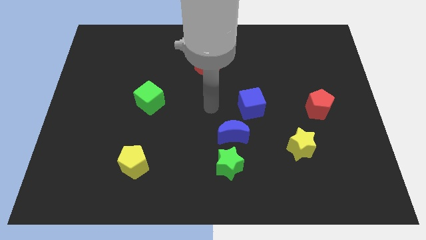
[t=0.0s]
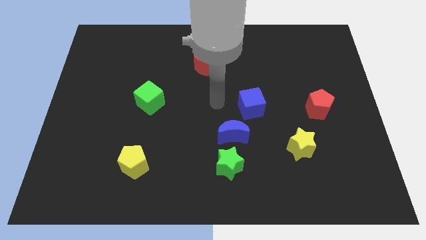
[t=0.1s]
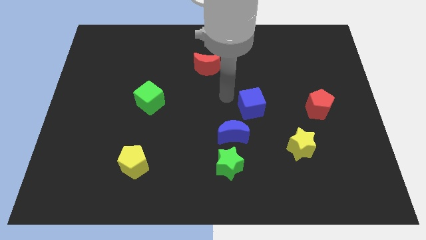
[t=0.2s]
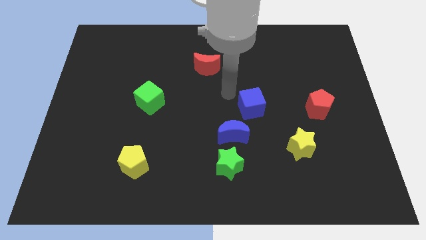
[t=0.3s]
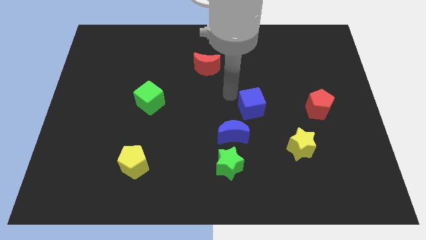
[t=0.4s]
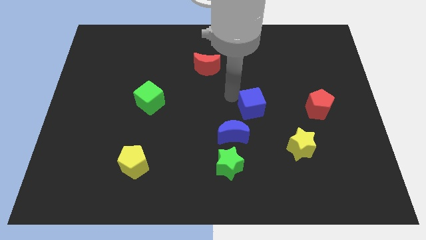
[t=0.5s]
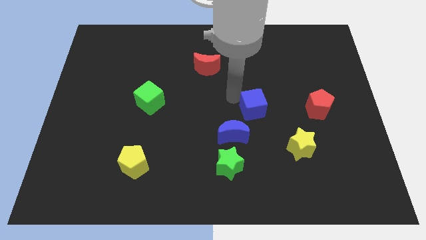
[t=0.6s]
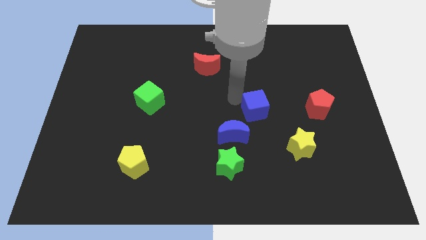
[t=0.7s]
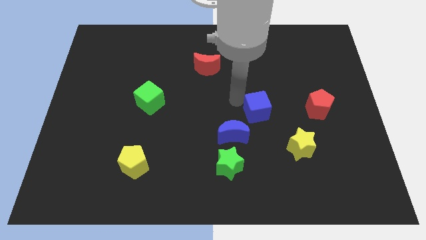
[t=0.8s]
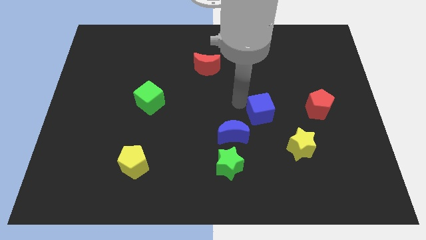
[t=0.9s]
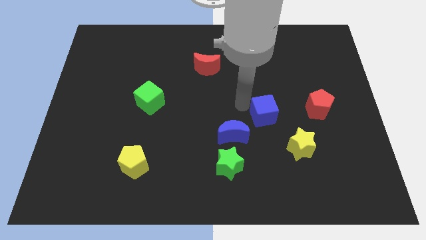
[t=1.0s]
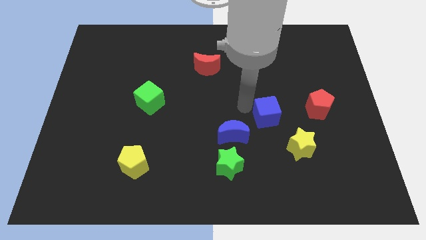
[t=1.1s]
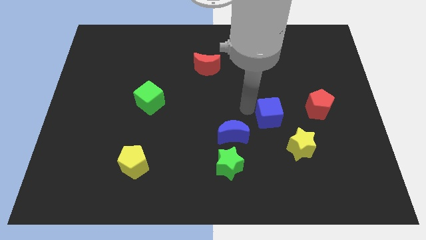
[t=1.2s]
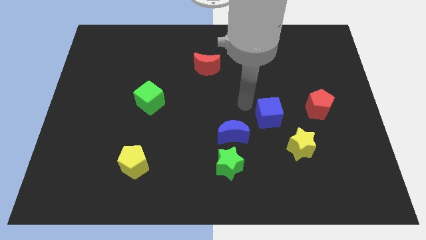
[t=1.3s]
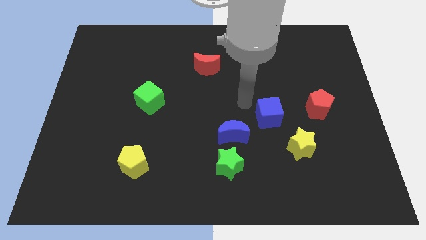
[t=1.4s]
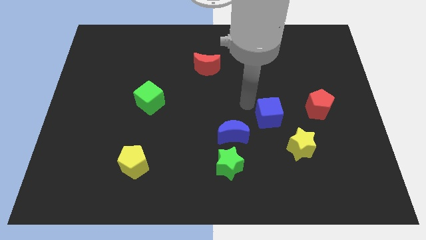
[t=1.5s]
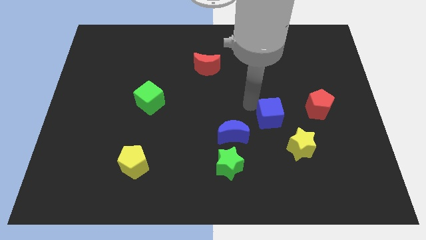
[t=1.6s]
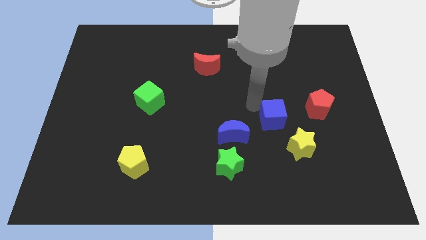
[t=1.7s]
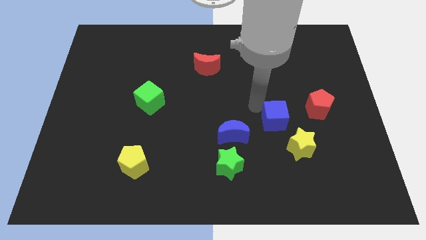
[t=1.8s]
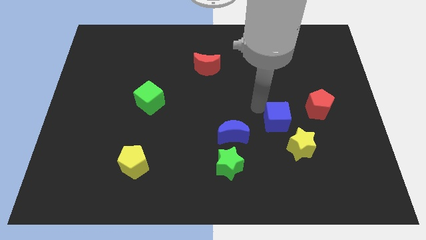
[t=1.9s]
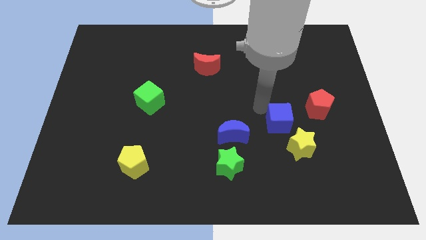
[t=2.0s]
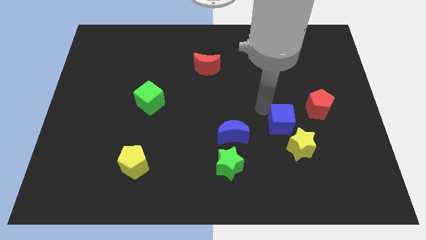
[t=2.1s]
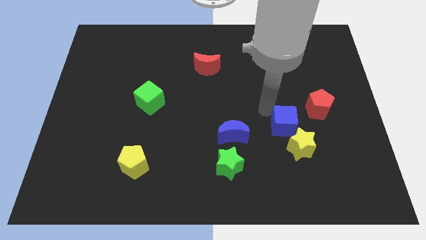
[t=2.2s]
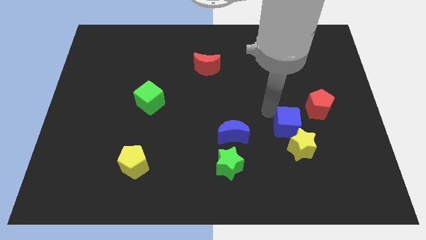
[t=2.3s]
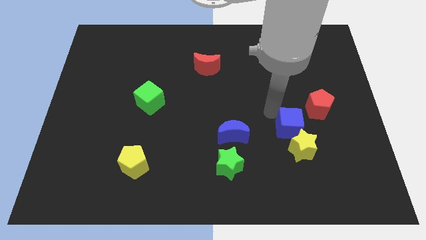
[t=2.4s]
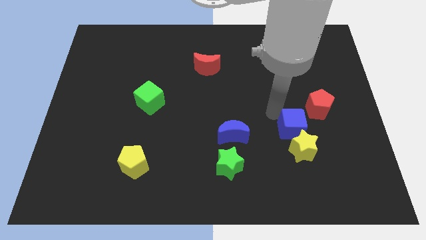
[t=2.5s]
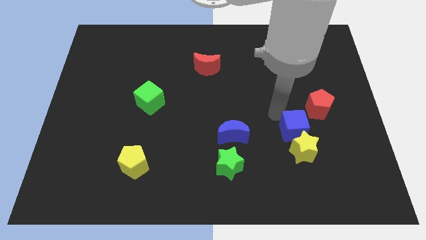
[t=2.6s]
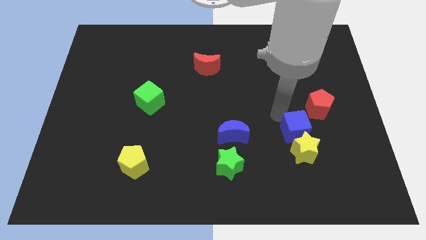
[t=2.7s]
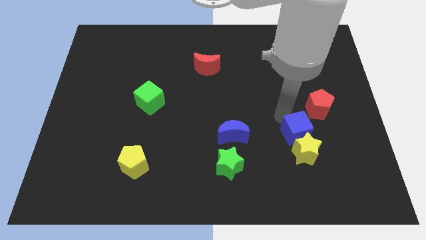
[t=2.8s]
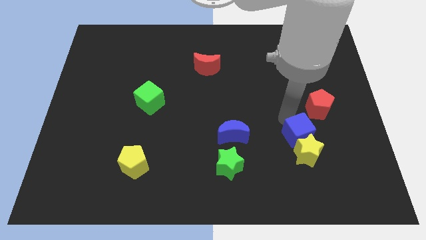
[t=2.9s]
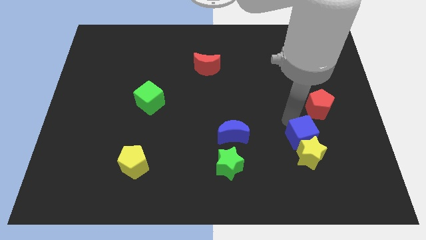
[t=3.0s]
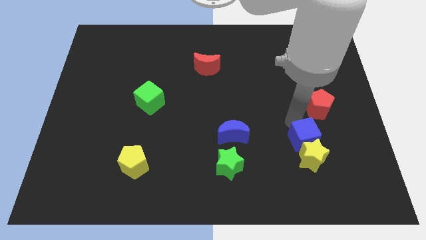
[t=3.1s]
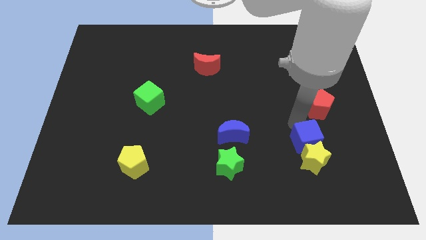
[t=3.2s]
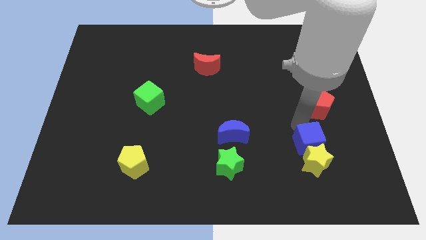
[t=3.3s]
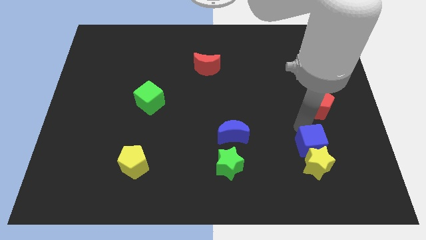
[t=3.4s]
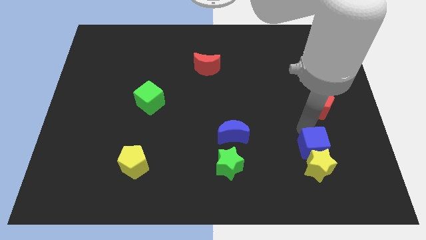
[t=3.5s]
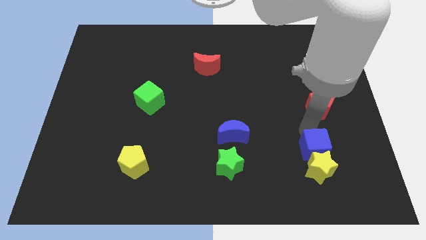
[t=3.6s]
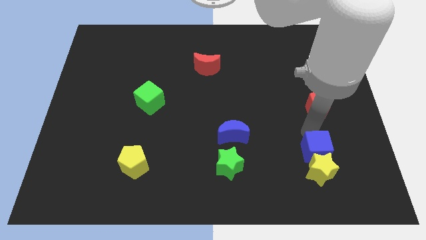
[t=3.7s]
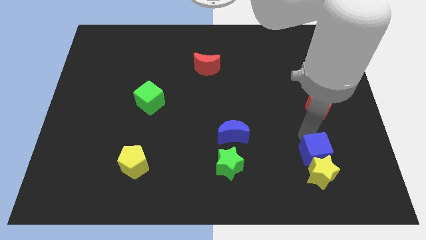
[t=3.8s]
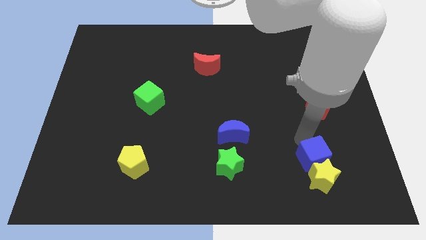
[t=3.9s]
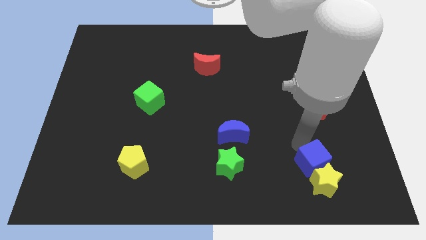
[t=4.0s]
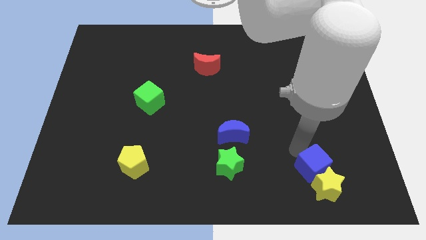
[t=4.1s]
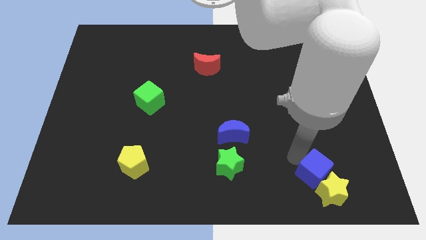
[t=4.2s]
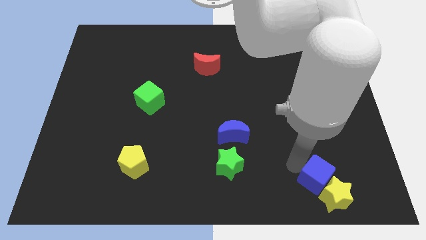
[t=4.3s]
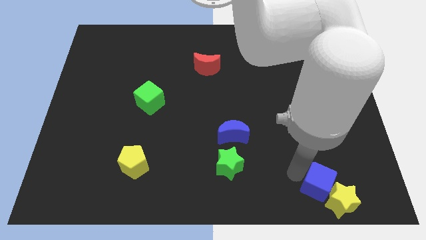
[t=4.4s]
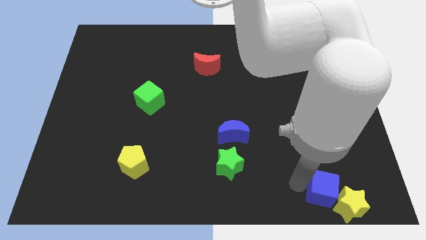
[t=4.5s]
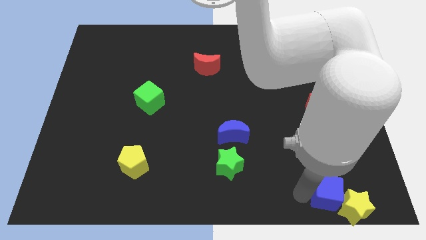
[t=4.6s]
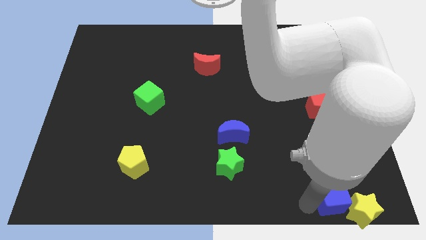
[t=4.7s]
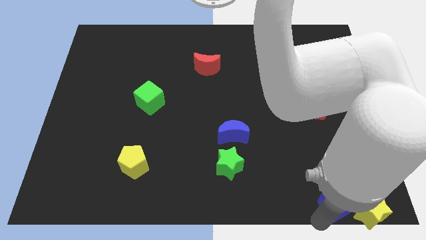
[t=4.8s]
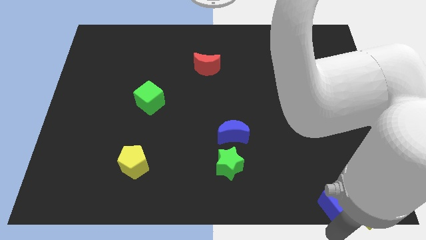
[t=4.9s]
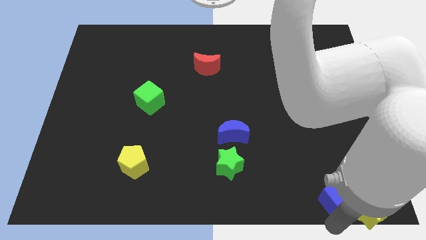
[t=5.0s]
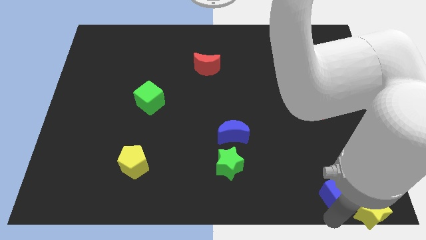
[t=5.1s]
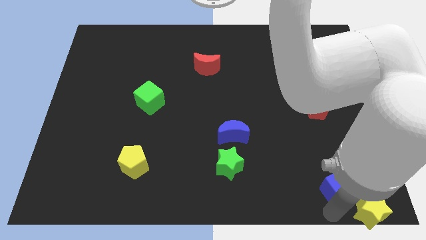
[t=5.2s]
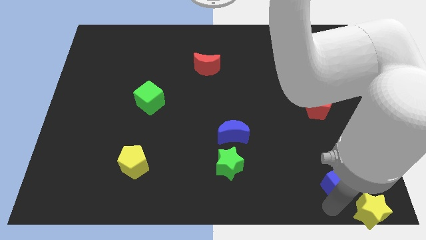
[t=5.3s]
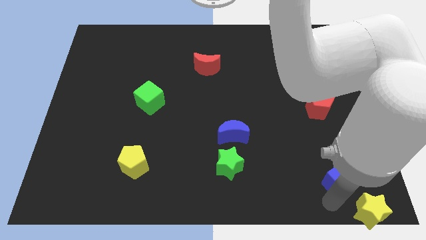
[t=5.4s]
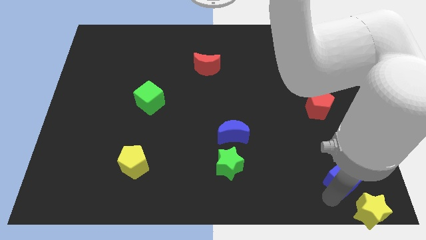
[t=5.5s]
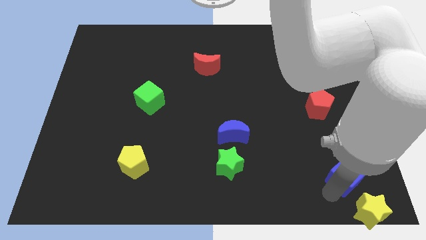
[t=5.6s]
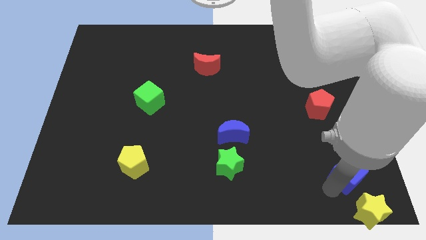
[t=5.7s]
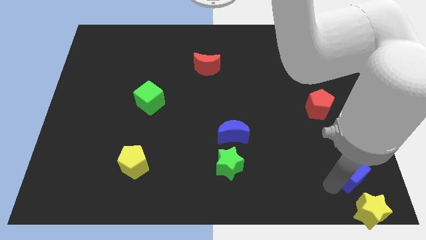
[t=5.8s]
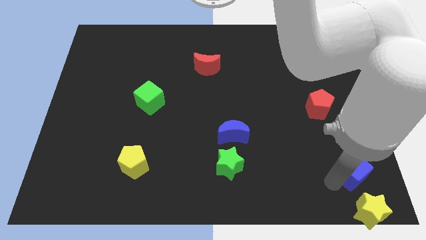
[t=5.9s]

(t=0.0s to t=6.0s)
move the blue cube to the bottom right

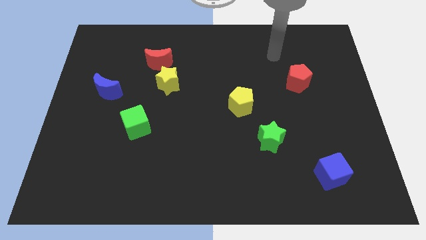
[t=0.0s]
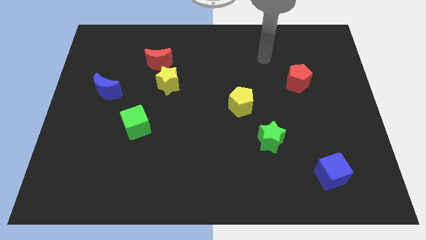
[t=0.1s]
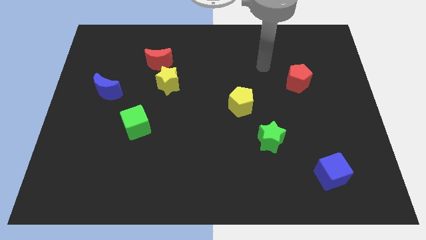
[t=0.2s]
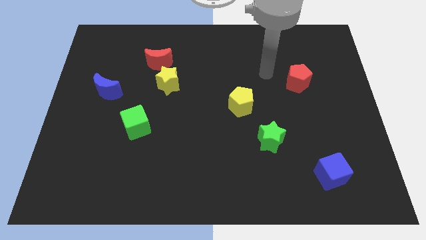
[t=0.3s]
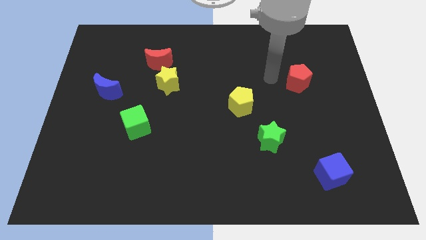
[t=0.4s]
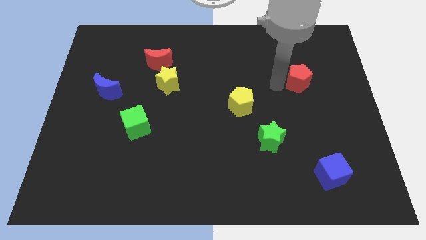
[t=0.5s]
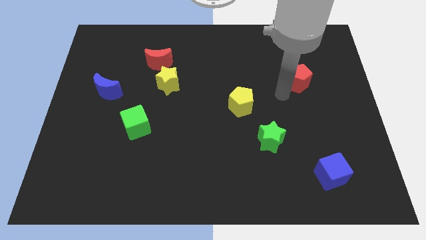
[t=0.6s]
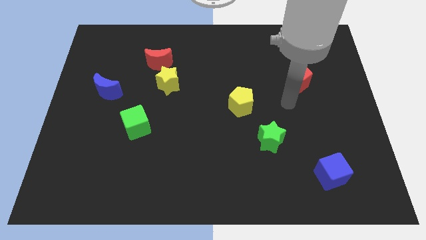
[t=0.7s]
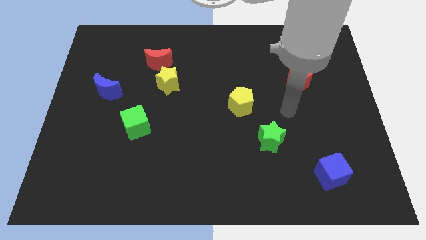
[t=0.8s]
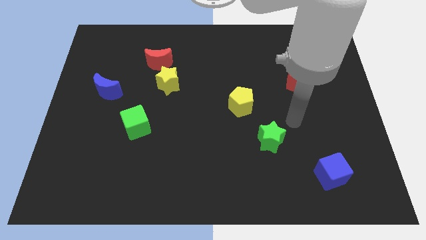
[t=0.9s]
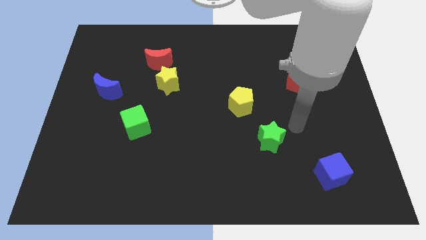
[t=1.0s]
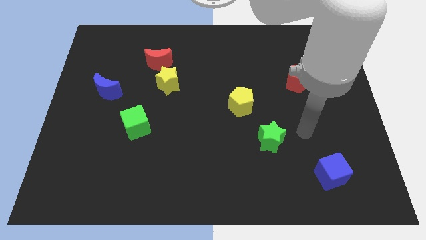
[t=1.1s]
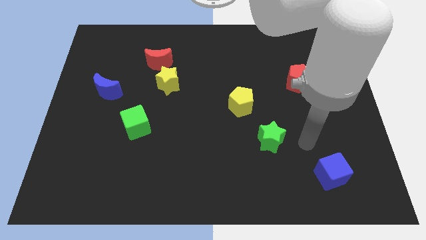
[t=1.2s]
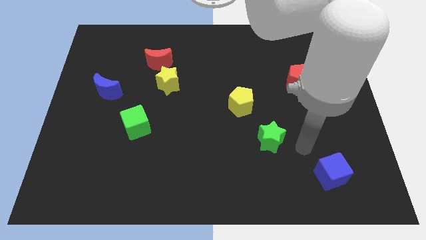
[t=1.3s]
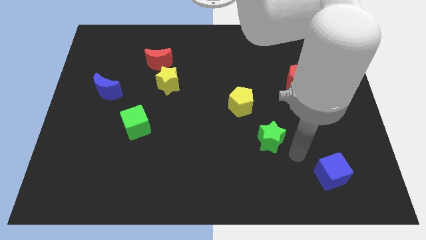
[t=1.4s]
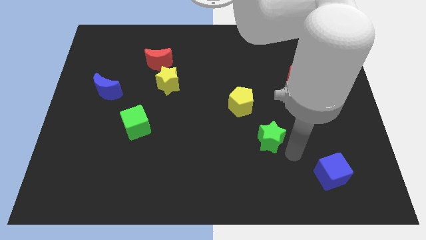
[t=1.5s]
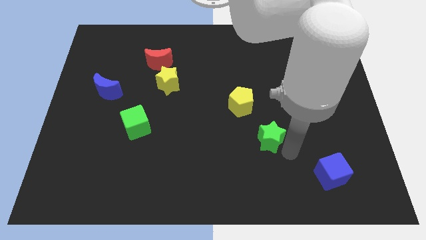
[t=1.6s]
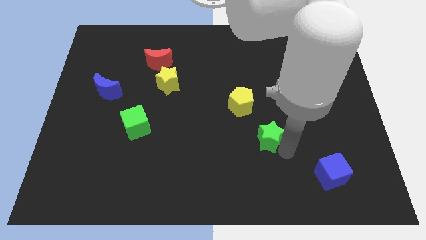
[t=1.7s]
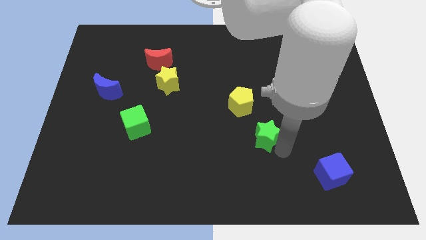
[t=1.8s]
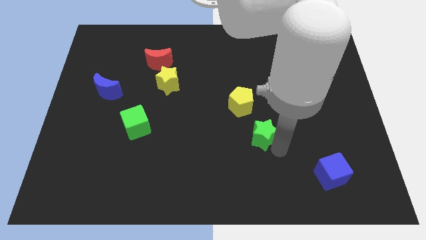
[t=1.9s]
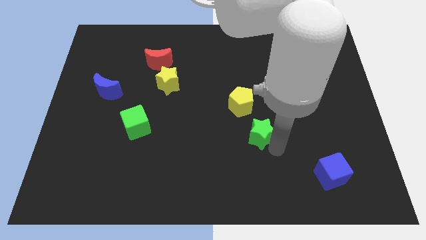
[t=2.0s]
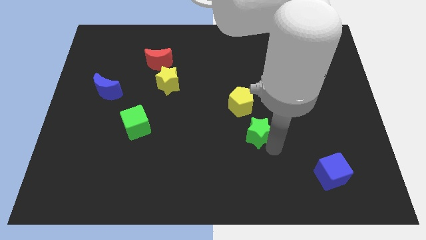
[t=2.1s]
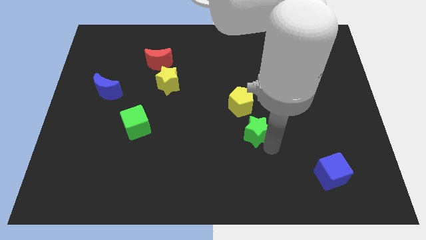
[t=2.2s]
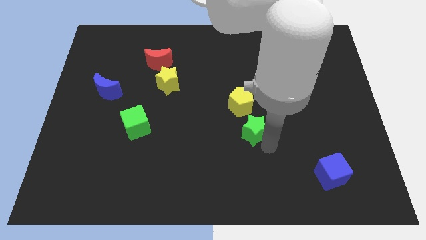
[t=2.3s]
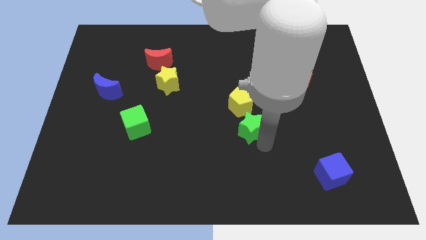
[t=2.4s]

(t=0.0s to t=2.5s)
push the green star to the middle of the board
